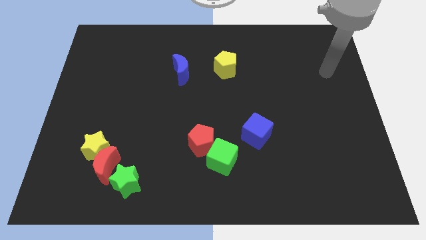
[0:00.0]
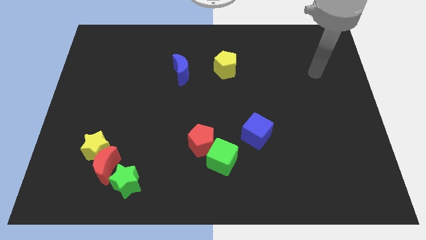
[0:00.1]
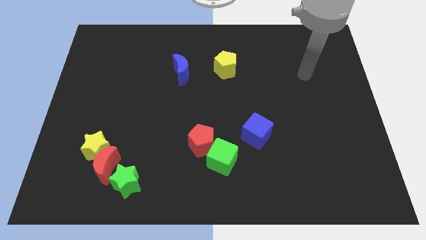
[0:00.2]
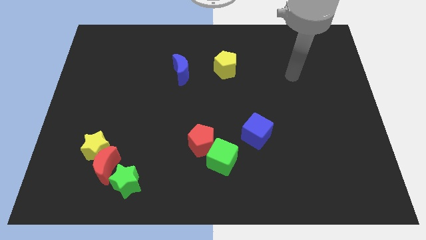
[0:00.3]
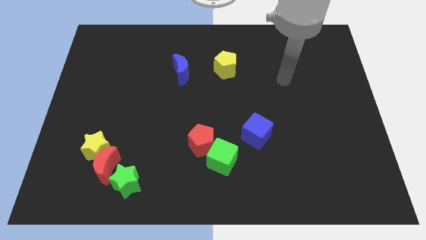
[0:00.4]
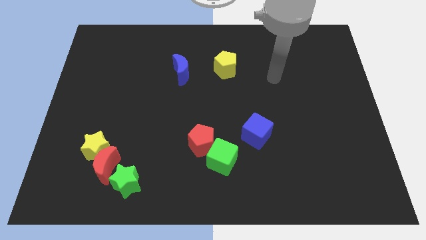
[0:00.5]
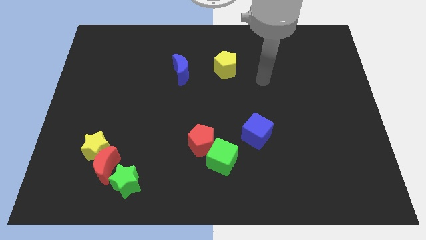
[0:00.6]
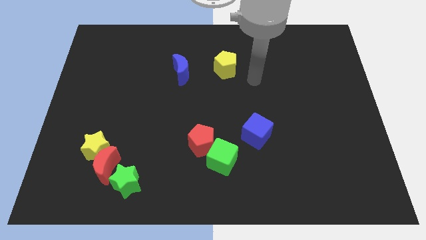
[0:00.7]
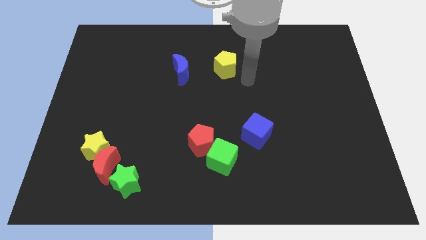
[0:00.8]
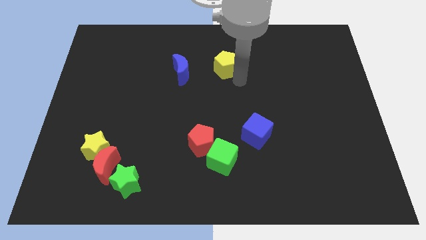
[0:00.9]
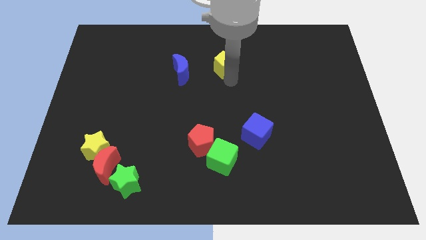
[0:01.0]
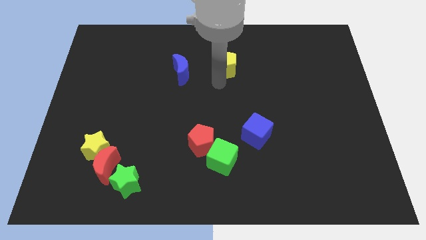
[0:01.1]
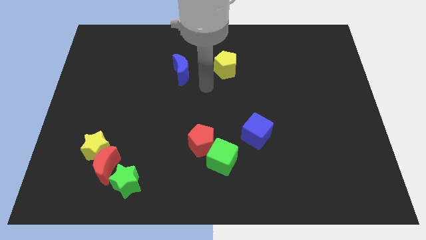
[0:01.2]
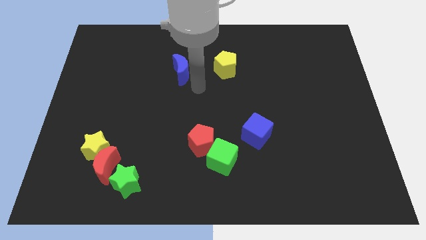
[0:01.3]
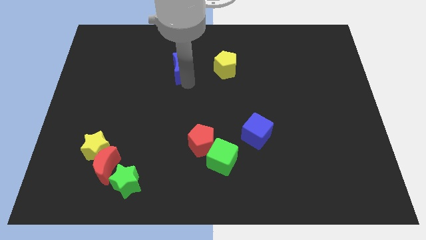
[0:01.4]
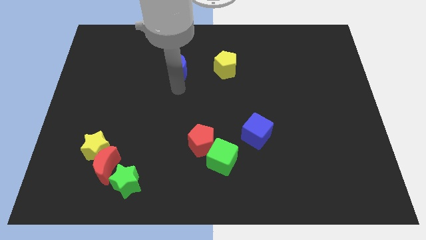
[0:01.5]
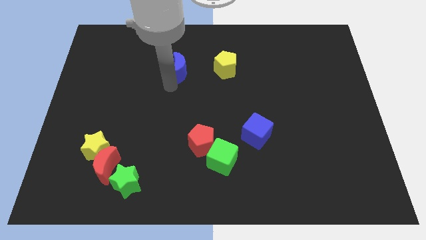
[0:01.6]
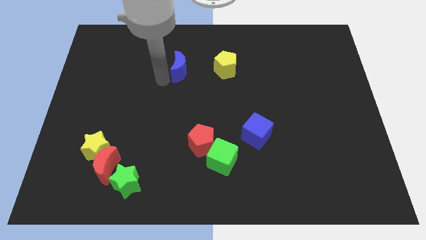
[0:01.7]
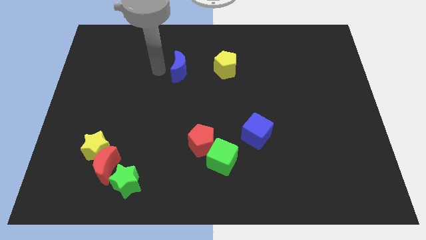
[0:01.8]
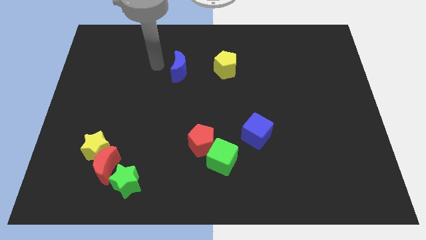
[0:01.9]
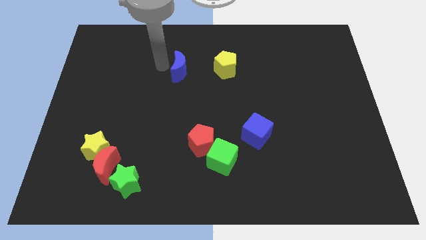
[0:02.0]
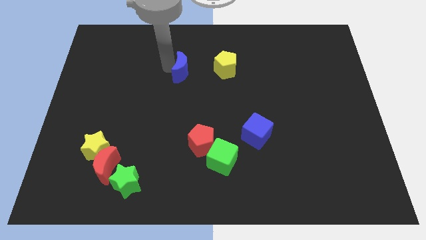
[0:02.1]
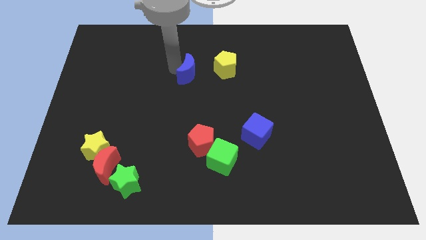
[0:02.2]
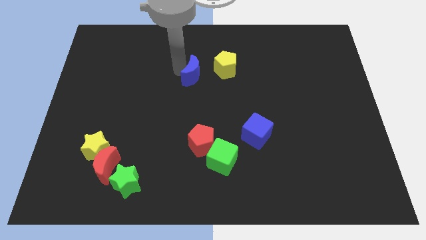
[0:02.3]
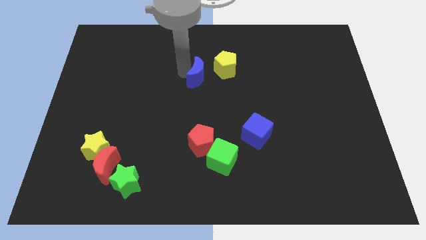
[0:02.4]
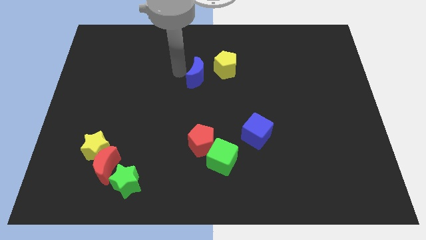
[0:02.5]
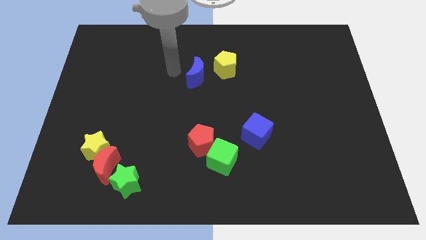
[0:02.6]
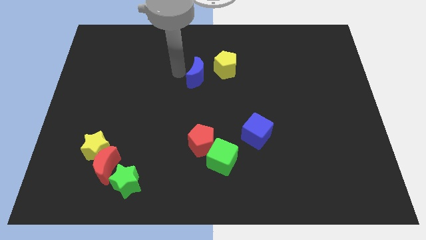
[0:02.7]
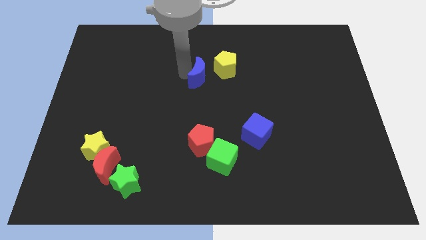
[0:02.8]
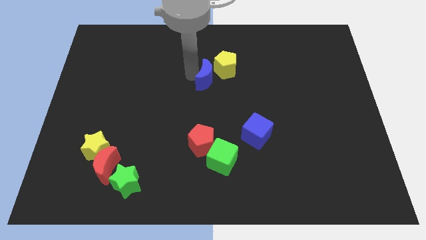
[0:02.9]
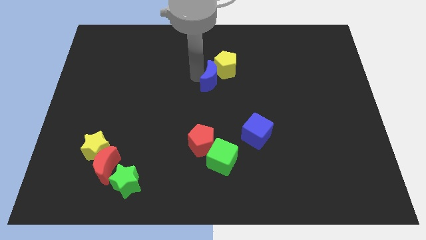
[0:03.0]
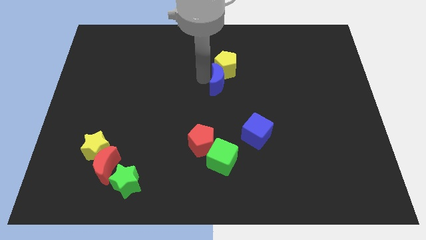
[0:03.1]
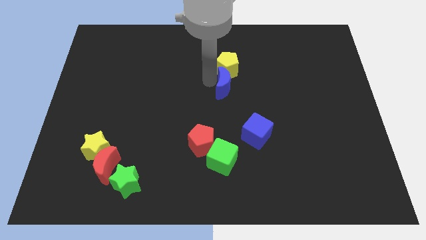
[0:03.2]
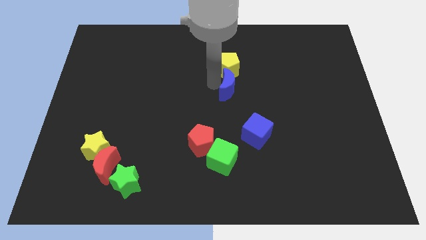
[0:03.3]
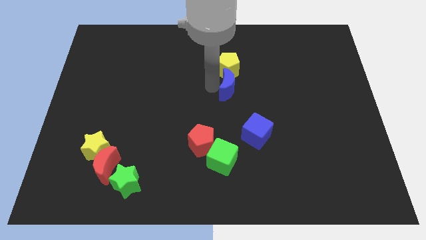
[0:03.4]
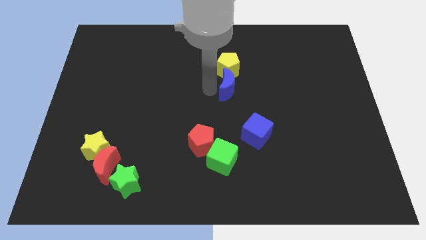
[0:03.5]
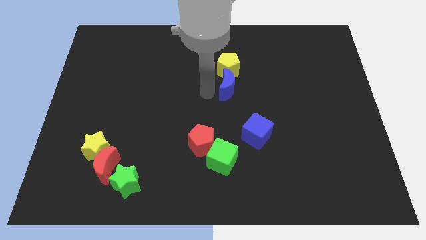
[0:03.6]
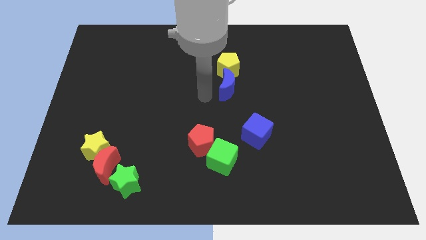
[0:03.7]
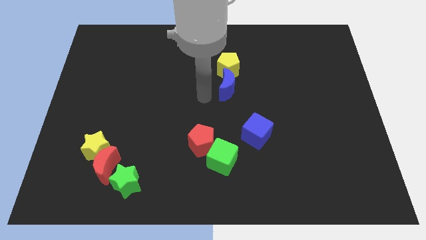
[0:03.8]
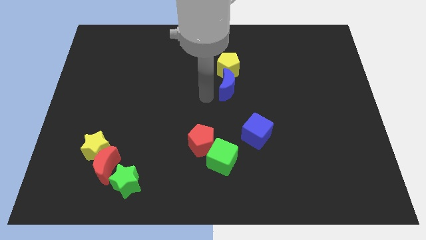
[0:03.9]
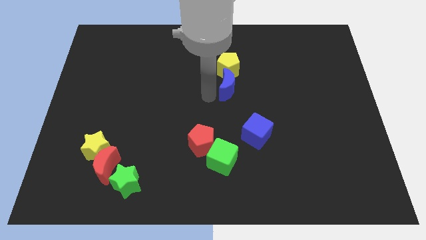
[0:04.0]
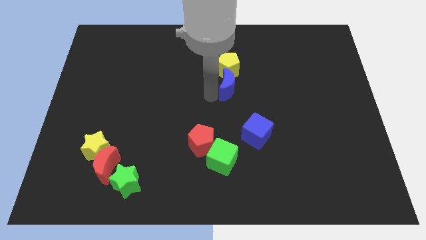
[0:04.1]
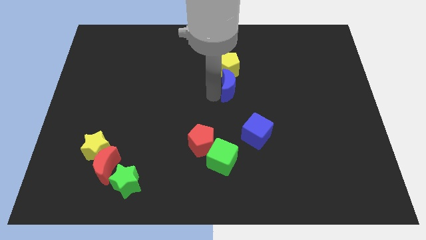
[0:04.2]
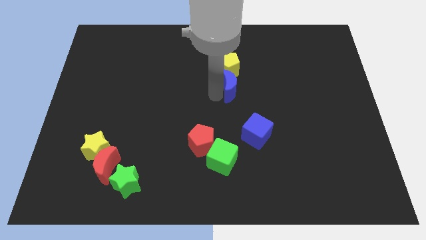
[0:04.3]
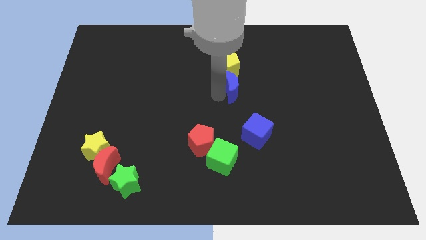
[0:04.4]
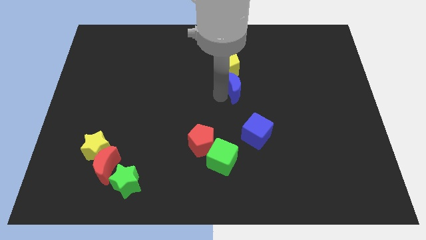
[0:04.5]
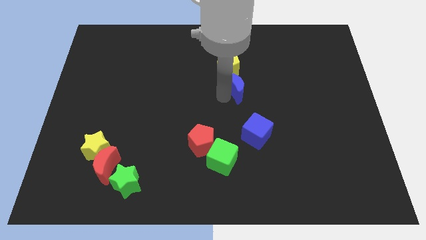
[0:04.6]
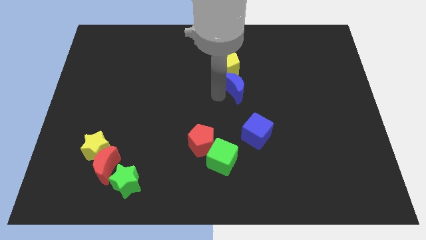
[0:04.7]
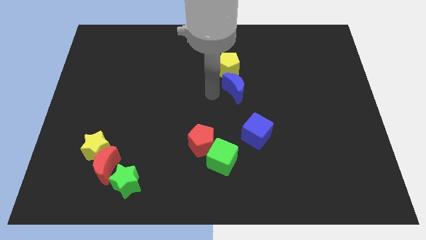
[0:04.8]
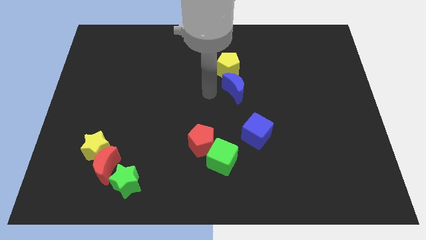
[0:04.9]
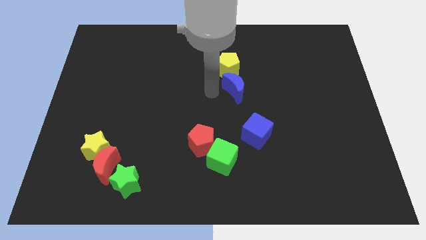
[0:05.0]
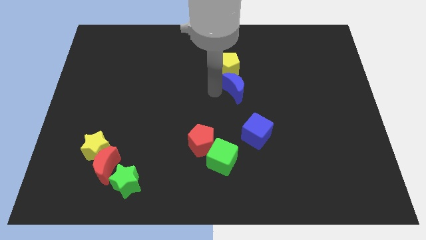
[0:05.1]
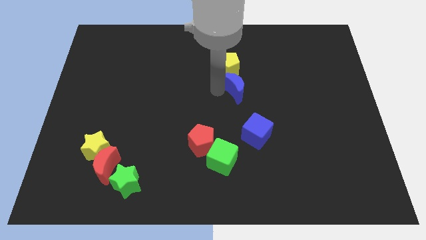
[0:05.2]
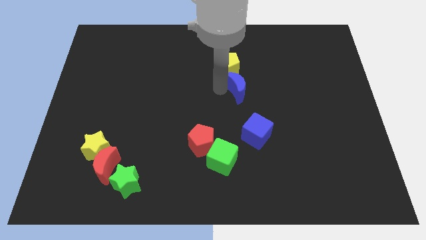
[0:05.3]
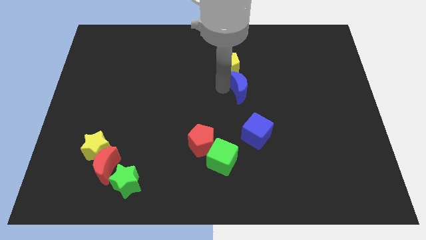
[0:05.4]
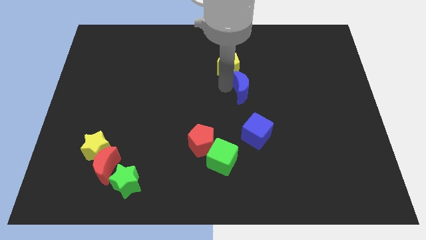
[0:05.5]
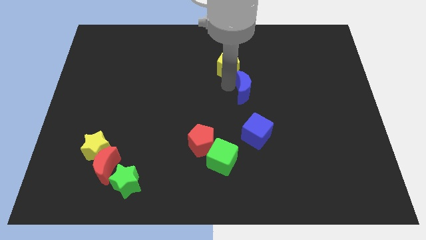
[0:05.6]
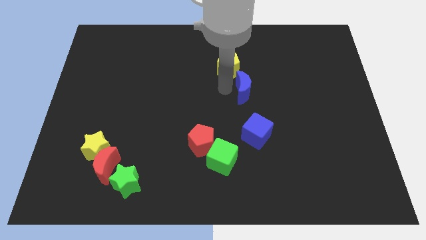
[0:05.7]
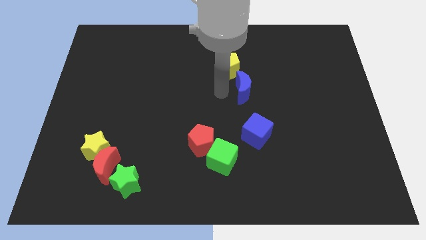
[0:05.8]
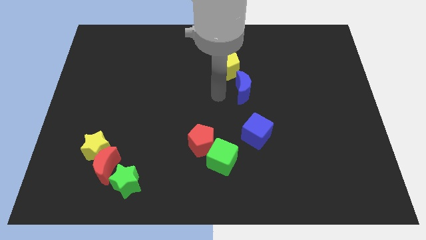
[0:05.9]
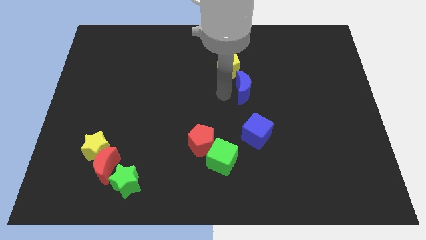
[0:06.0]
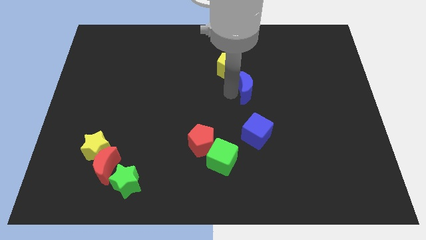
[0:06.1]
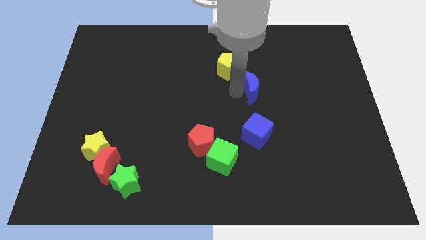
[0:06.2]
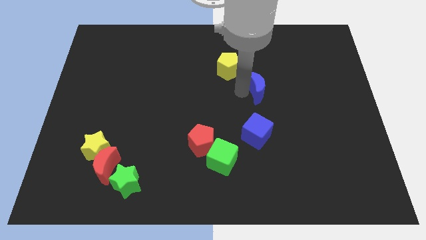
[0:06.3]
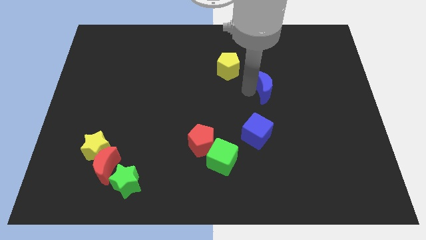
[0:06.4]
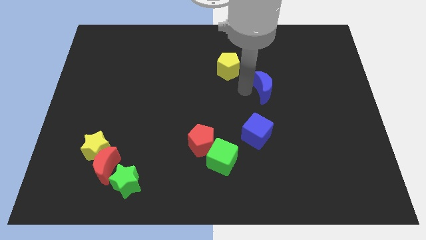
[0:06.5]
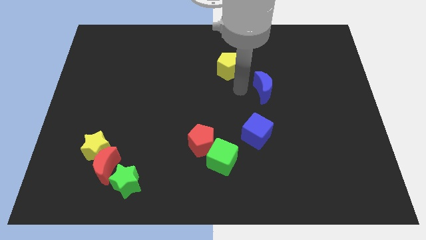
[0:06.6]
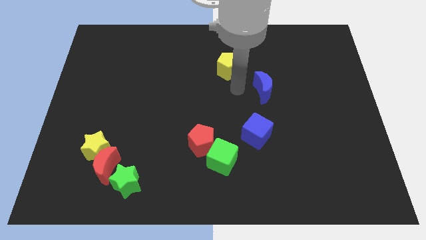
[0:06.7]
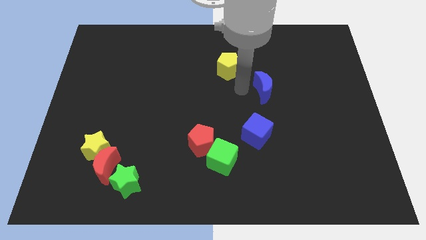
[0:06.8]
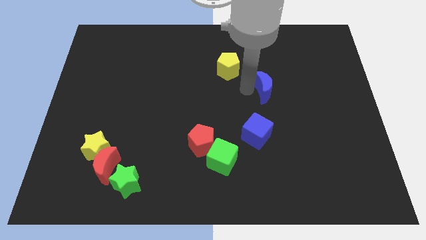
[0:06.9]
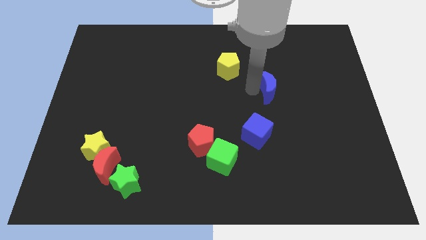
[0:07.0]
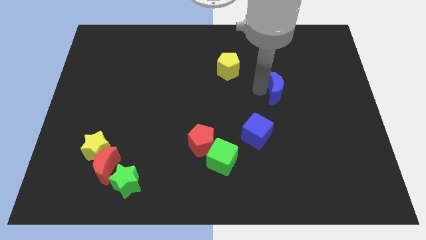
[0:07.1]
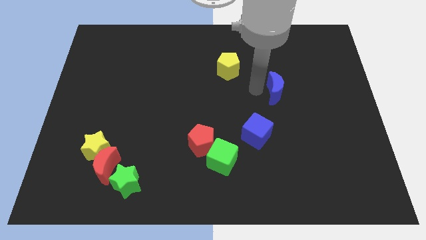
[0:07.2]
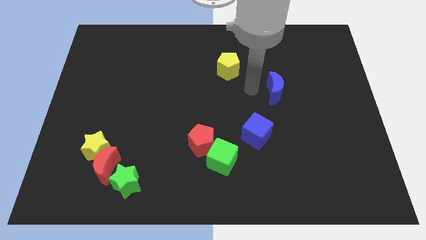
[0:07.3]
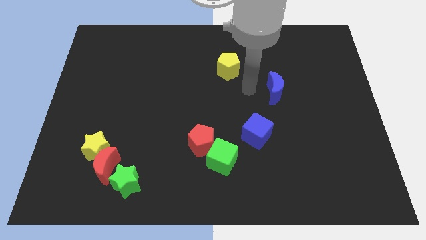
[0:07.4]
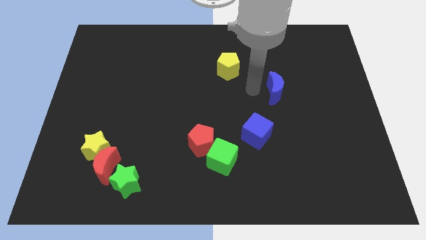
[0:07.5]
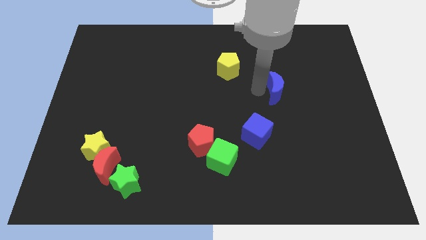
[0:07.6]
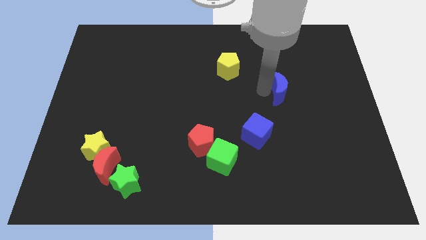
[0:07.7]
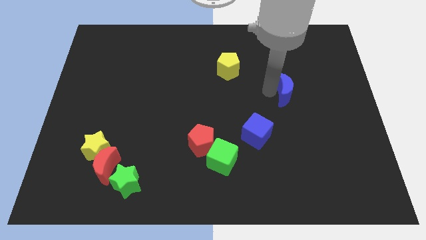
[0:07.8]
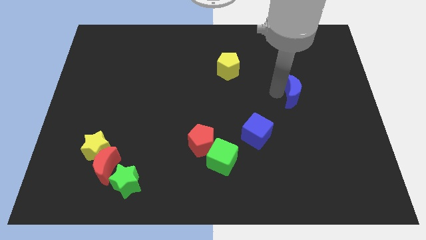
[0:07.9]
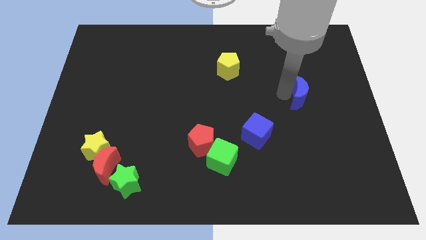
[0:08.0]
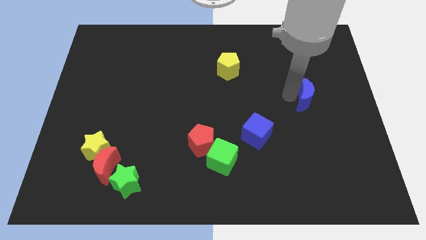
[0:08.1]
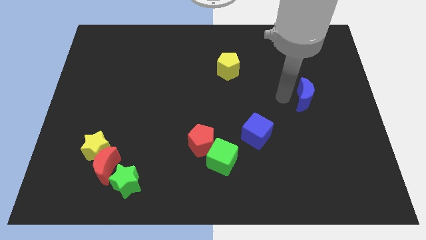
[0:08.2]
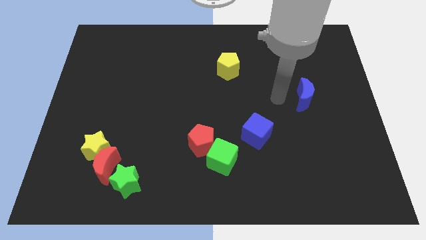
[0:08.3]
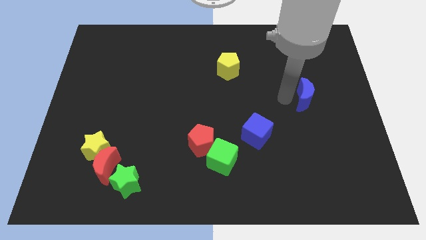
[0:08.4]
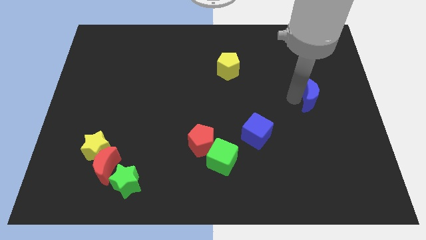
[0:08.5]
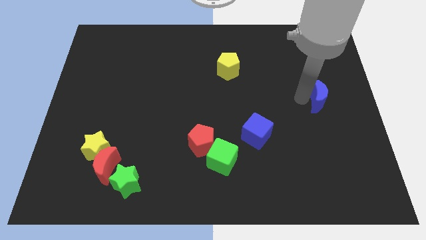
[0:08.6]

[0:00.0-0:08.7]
put the blue moon to the center right
